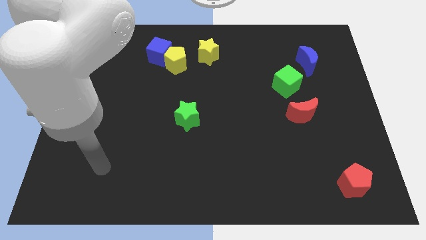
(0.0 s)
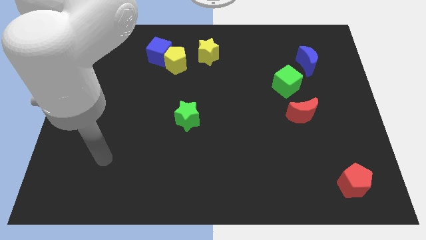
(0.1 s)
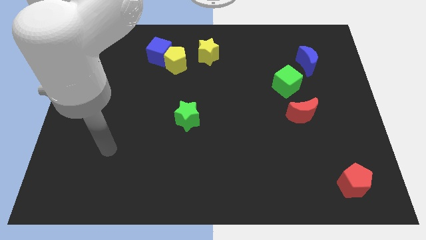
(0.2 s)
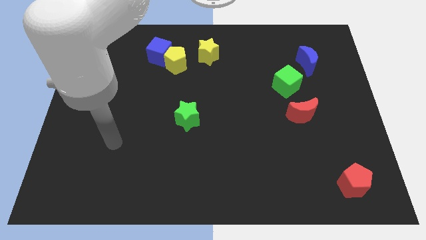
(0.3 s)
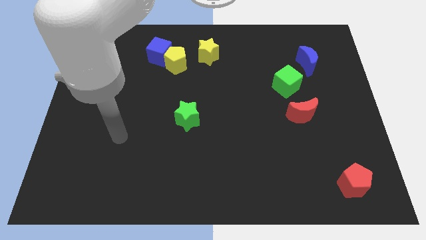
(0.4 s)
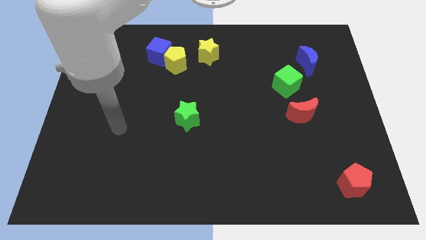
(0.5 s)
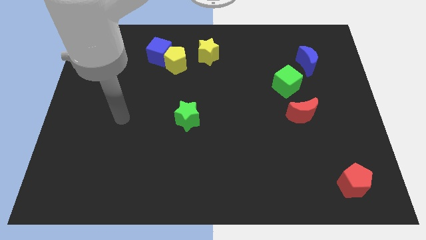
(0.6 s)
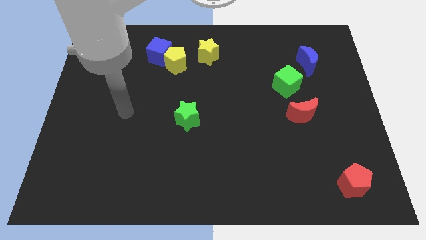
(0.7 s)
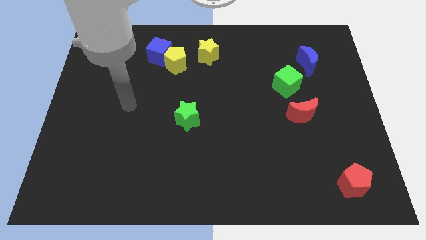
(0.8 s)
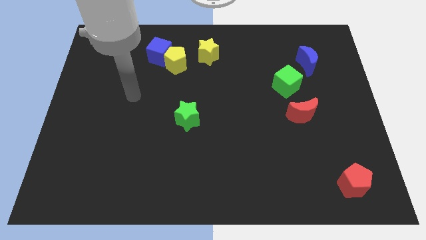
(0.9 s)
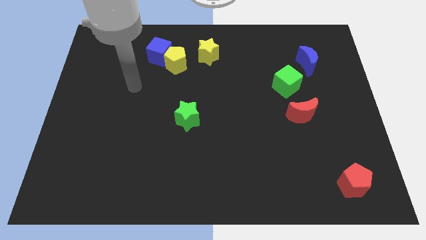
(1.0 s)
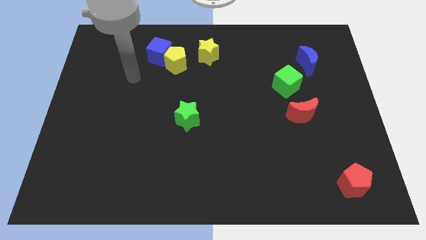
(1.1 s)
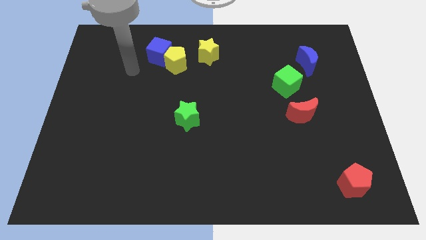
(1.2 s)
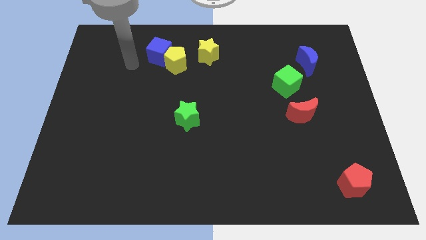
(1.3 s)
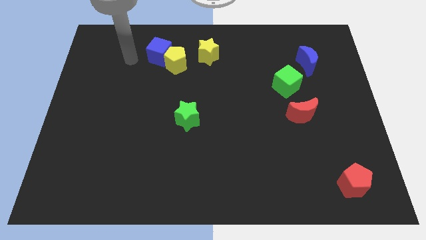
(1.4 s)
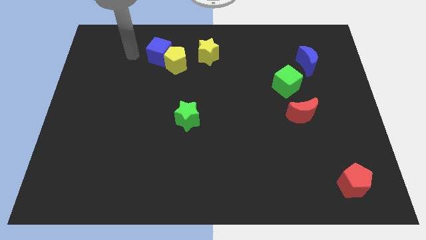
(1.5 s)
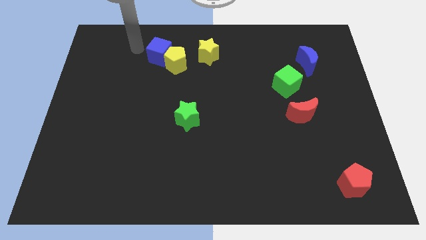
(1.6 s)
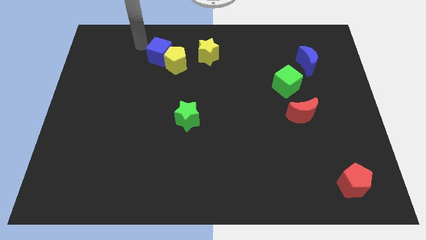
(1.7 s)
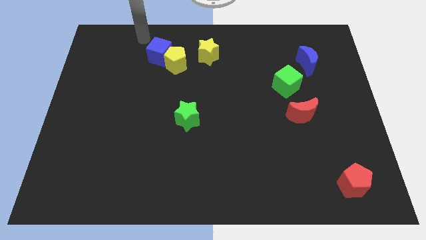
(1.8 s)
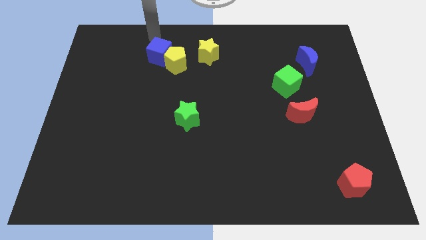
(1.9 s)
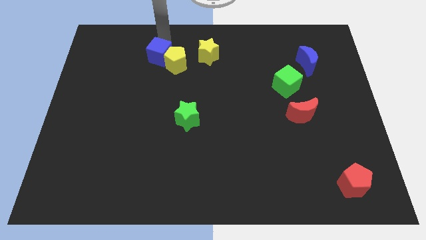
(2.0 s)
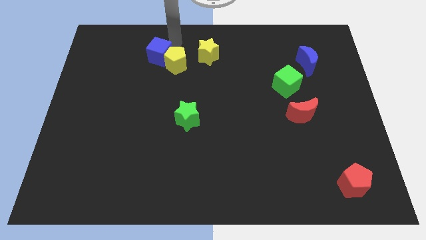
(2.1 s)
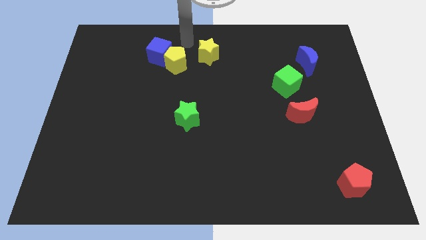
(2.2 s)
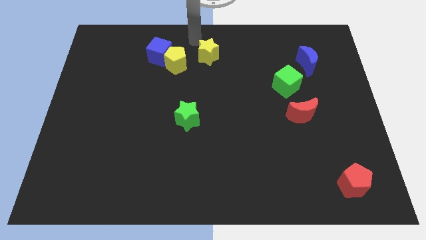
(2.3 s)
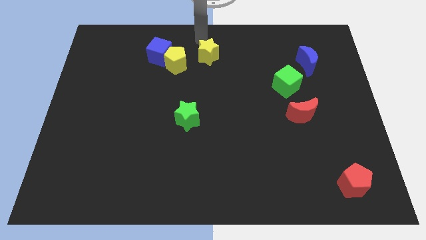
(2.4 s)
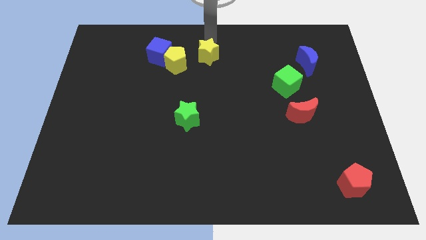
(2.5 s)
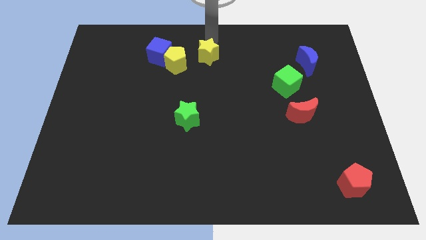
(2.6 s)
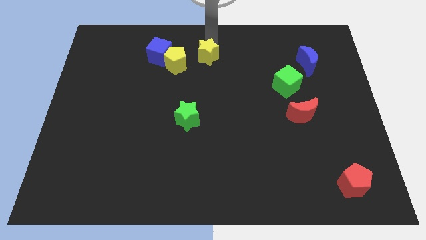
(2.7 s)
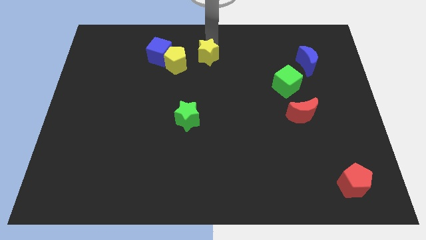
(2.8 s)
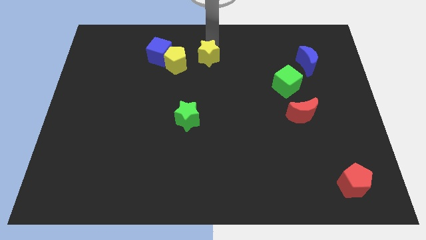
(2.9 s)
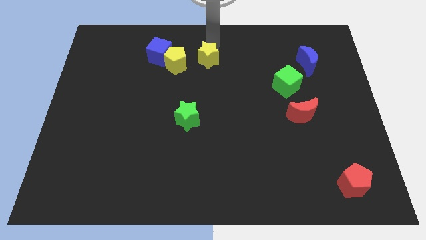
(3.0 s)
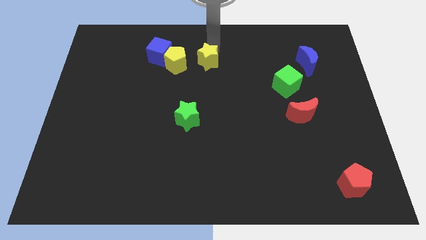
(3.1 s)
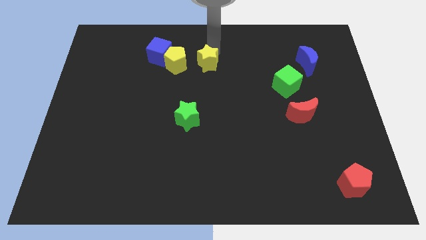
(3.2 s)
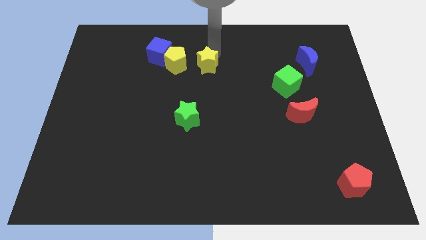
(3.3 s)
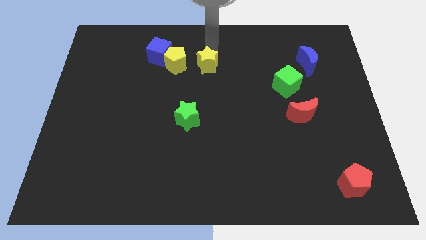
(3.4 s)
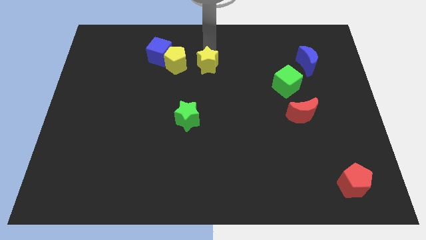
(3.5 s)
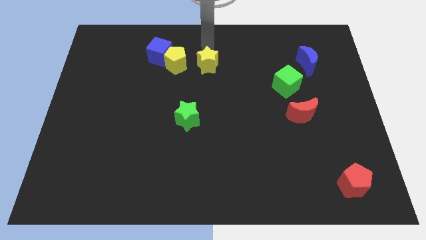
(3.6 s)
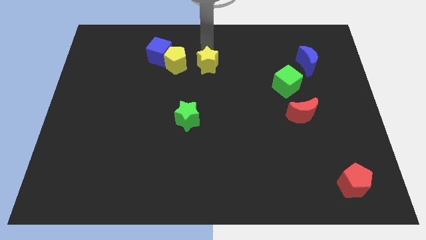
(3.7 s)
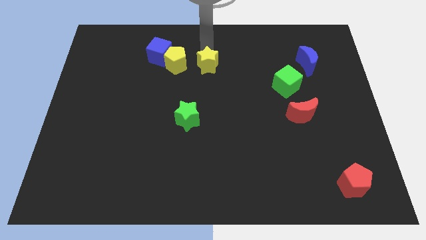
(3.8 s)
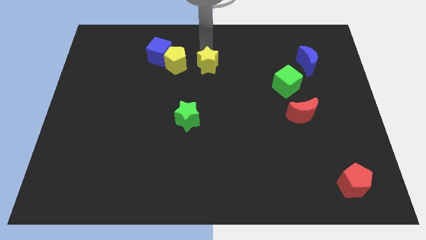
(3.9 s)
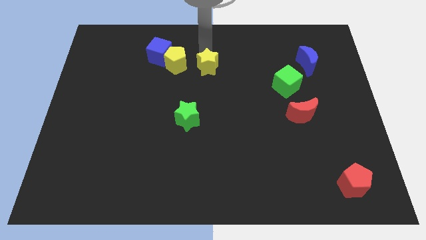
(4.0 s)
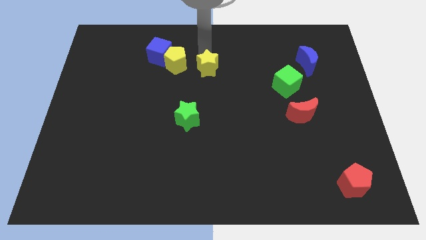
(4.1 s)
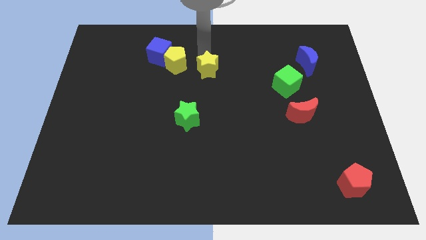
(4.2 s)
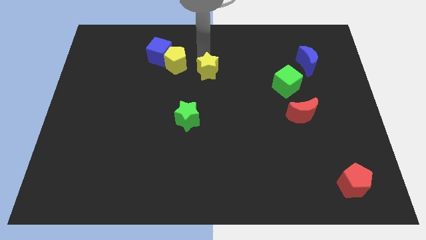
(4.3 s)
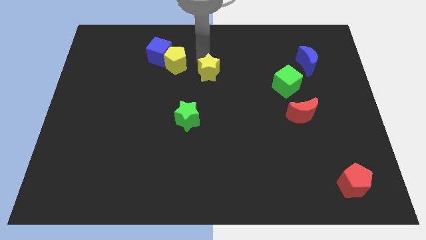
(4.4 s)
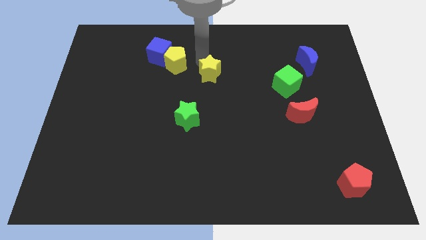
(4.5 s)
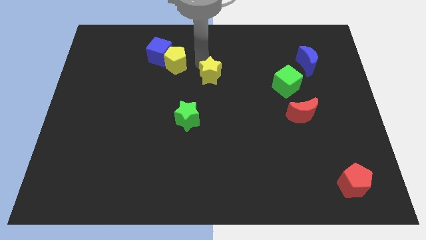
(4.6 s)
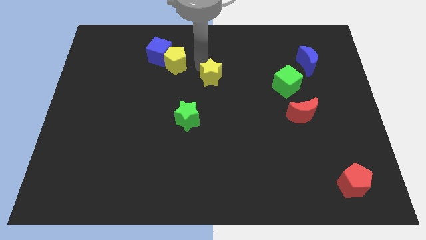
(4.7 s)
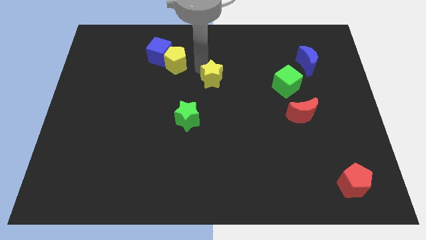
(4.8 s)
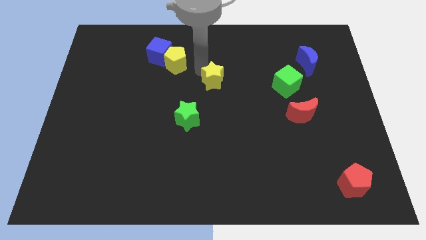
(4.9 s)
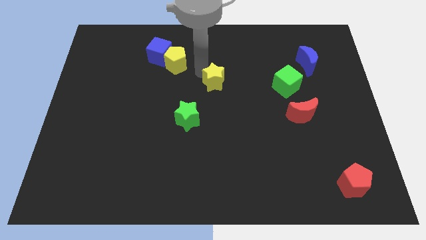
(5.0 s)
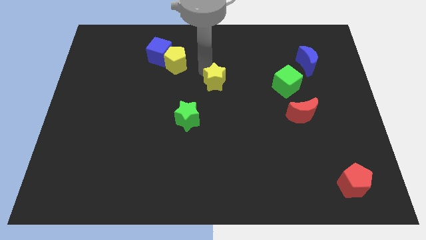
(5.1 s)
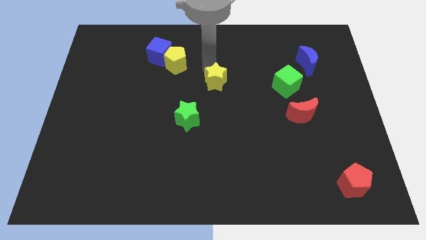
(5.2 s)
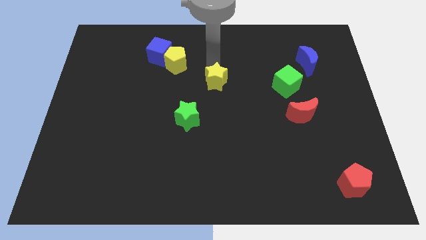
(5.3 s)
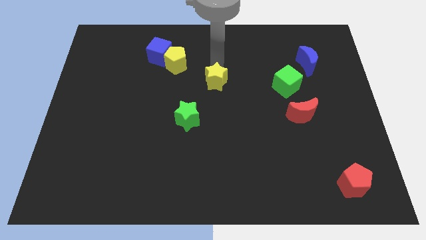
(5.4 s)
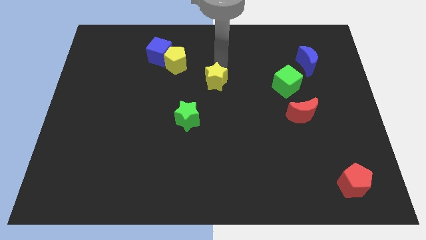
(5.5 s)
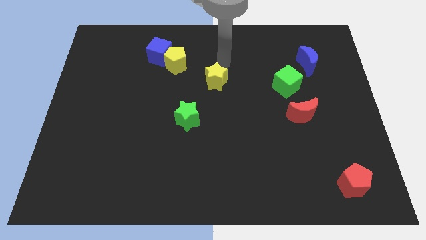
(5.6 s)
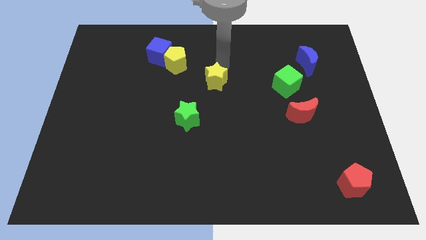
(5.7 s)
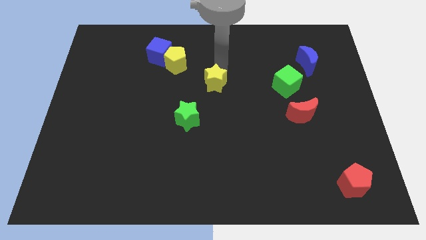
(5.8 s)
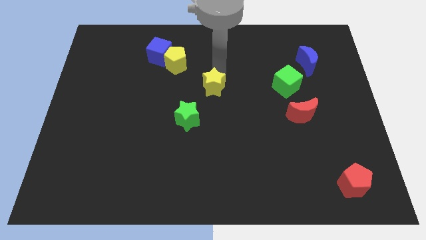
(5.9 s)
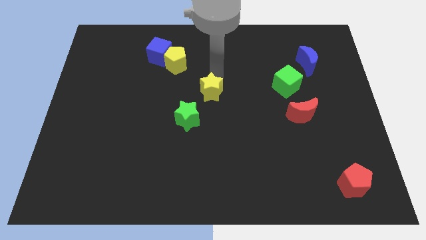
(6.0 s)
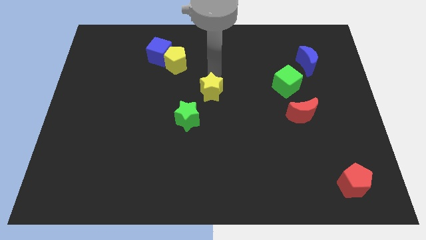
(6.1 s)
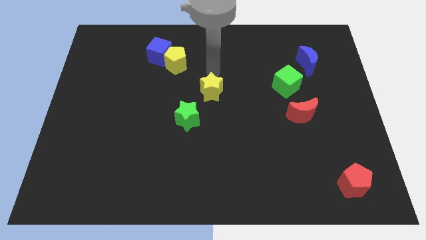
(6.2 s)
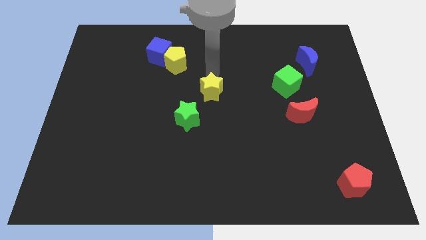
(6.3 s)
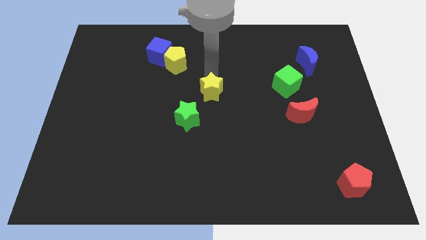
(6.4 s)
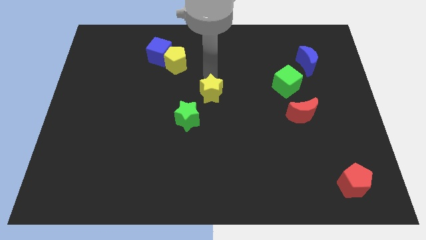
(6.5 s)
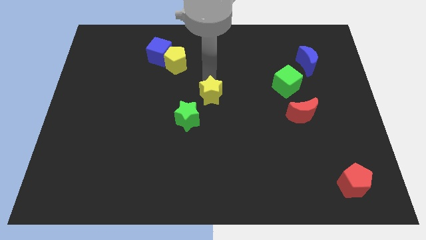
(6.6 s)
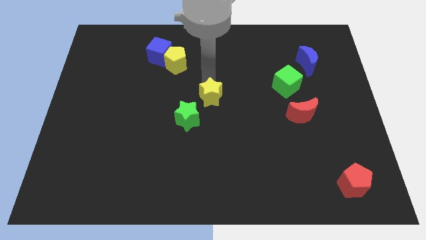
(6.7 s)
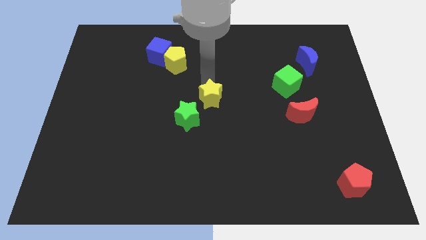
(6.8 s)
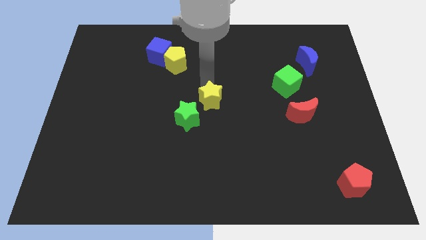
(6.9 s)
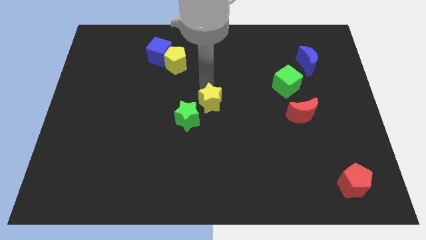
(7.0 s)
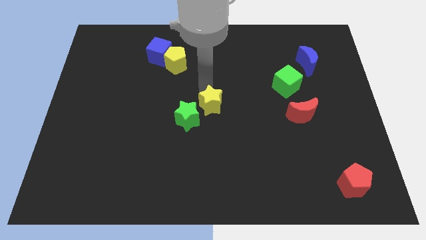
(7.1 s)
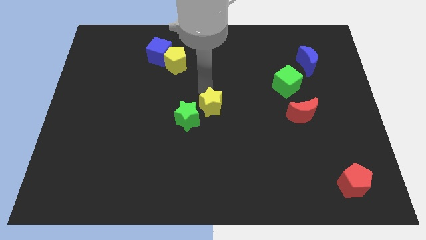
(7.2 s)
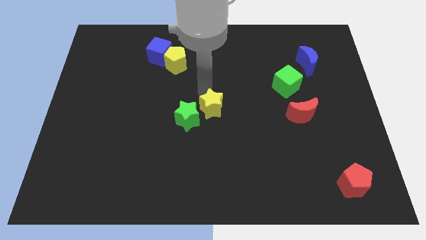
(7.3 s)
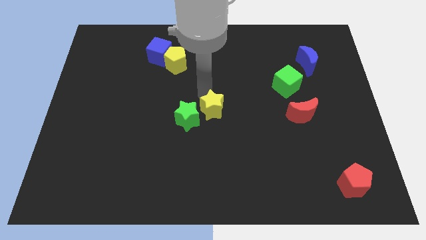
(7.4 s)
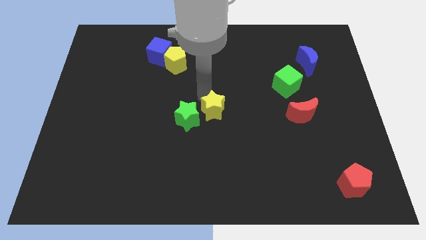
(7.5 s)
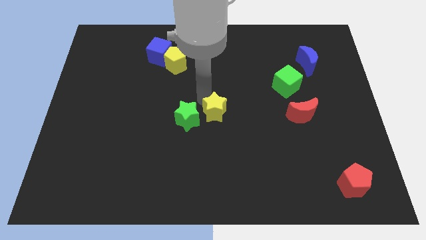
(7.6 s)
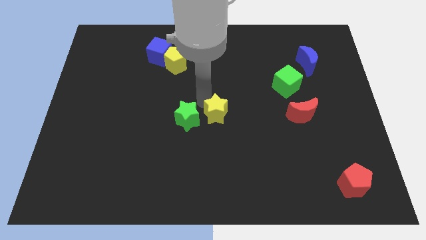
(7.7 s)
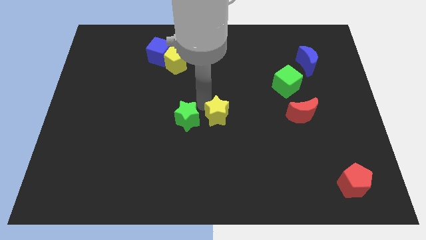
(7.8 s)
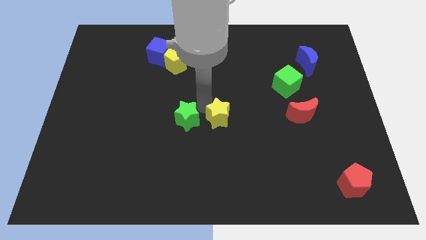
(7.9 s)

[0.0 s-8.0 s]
push the yellow star down
